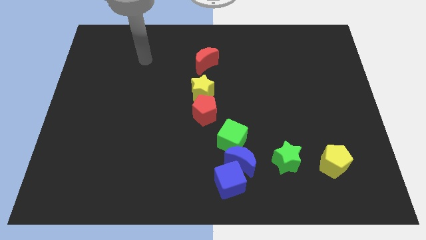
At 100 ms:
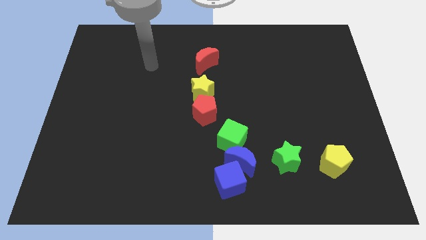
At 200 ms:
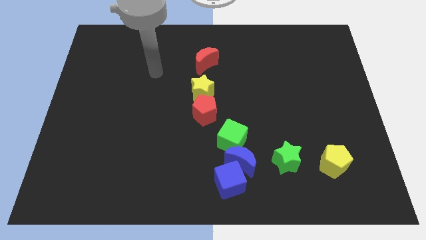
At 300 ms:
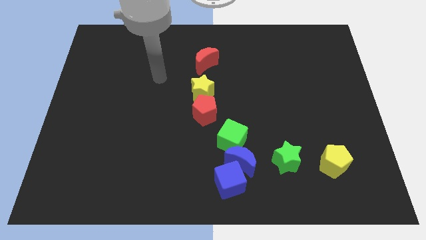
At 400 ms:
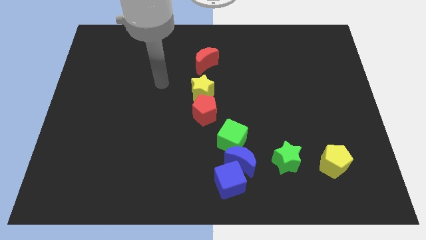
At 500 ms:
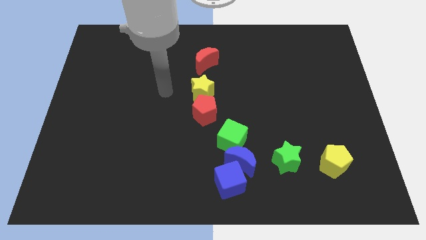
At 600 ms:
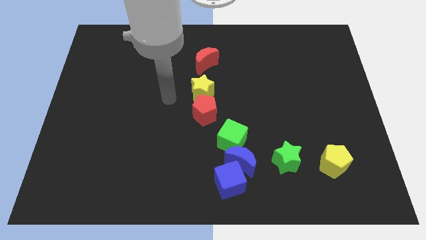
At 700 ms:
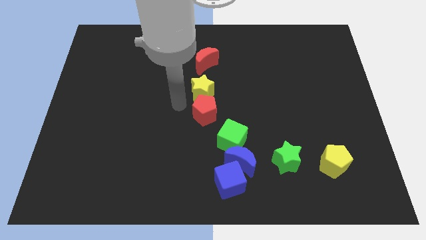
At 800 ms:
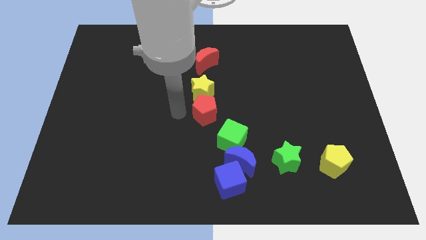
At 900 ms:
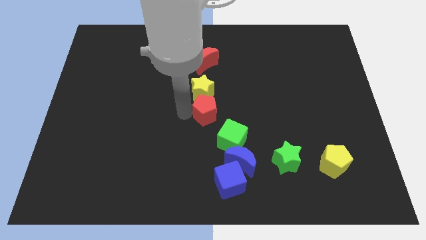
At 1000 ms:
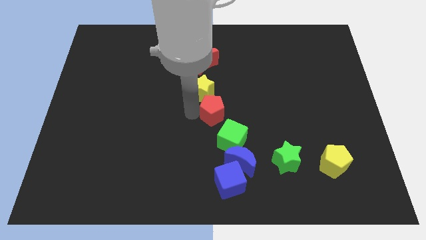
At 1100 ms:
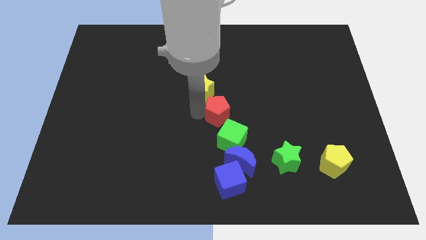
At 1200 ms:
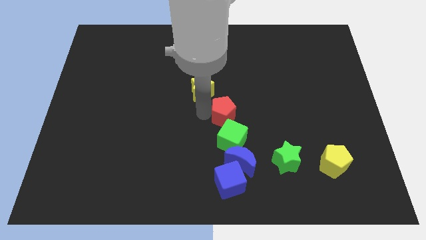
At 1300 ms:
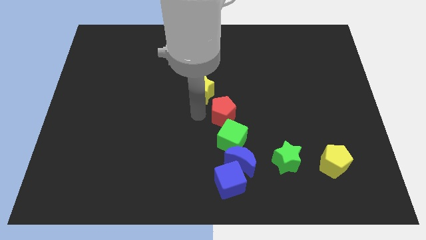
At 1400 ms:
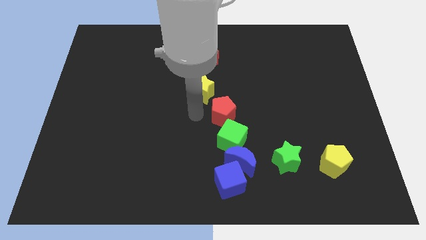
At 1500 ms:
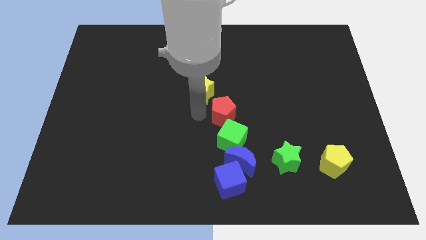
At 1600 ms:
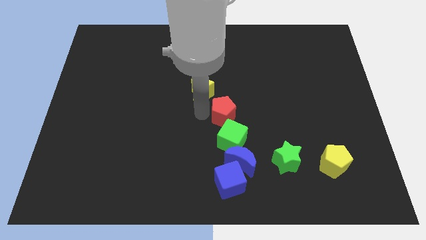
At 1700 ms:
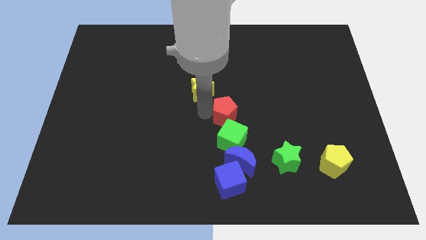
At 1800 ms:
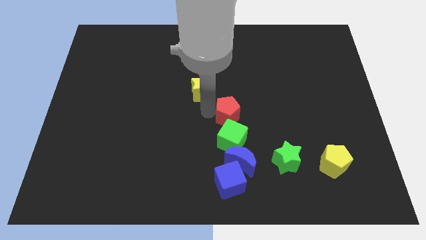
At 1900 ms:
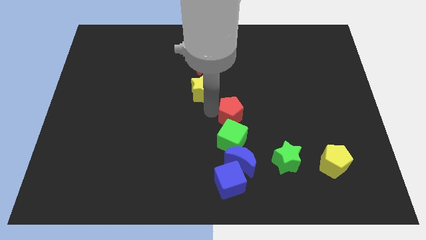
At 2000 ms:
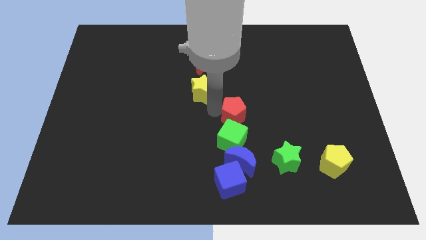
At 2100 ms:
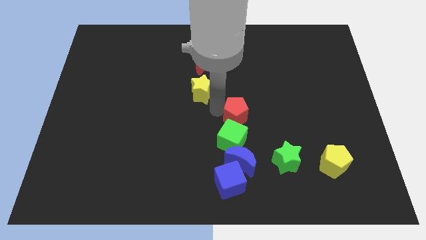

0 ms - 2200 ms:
slightly slide the red pentagon to the right

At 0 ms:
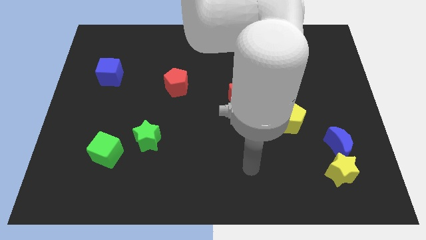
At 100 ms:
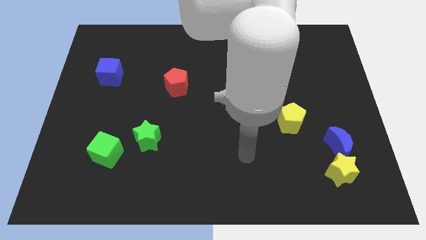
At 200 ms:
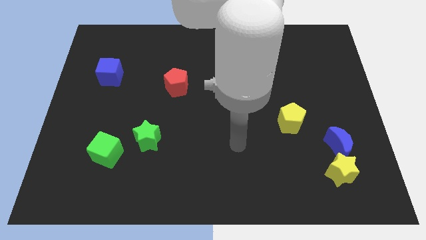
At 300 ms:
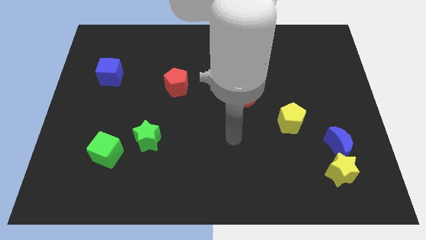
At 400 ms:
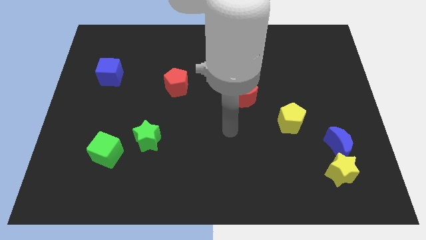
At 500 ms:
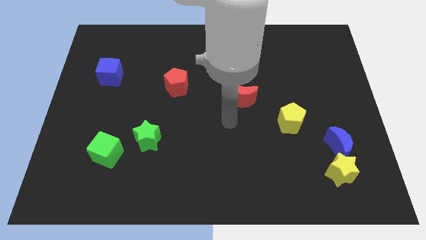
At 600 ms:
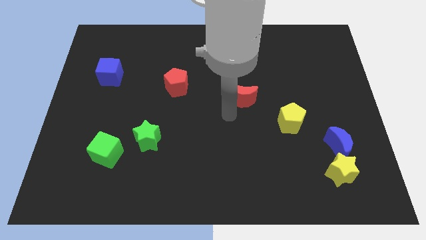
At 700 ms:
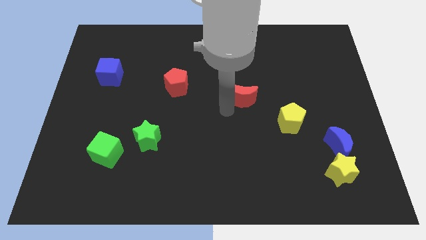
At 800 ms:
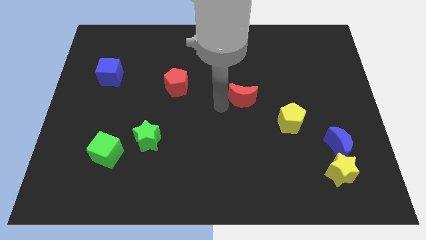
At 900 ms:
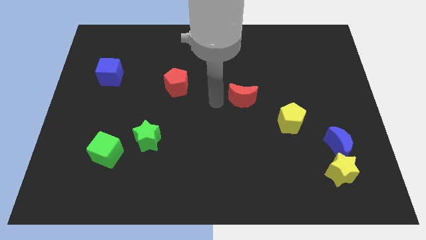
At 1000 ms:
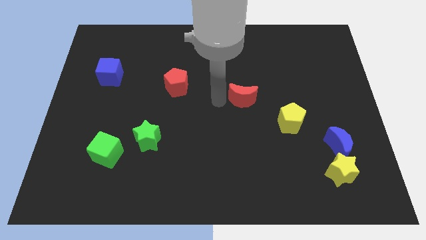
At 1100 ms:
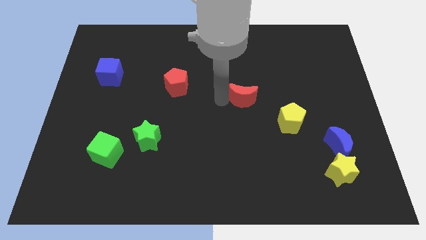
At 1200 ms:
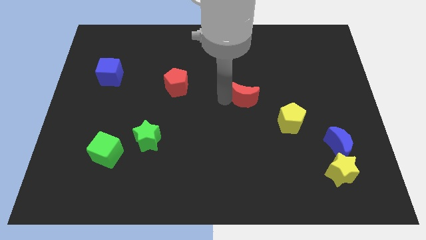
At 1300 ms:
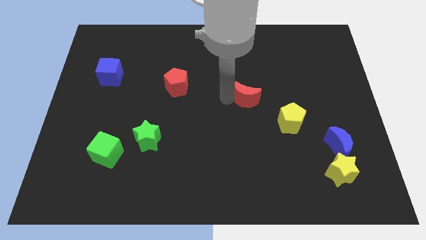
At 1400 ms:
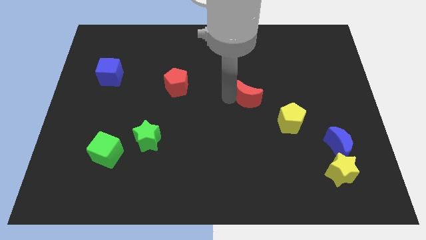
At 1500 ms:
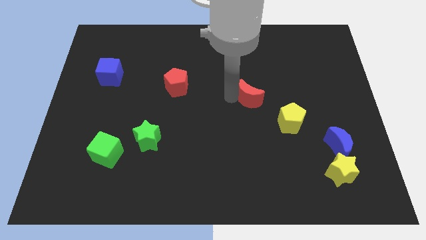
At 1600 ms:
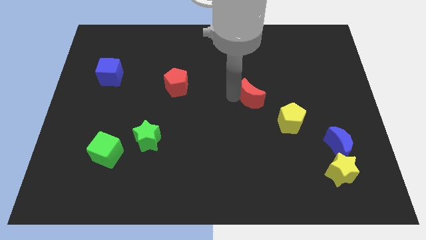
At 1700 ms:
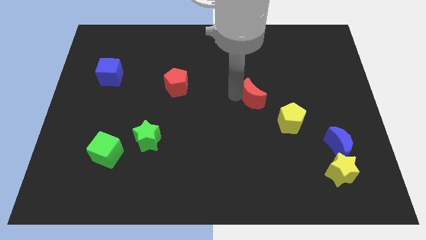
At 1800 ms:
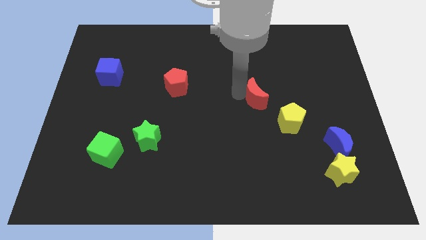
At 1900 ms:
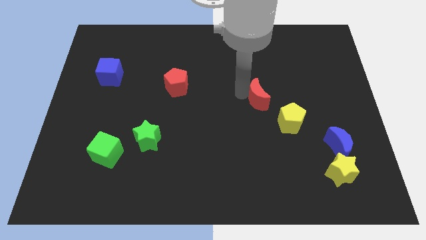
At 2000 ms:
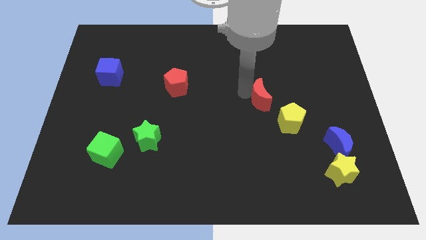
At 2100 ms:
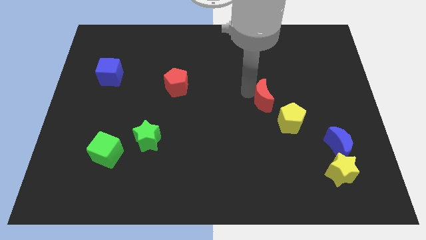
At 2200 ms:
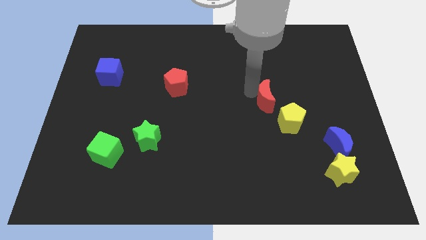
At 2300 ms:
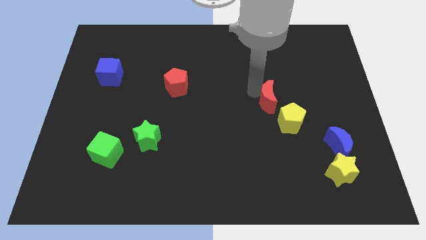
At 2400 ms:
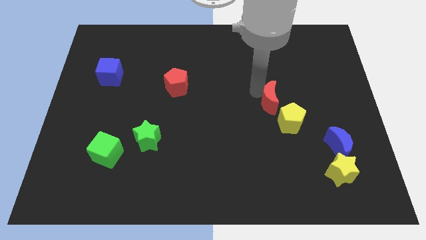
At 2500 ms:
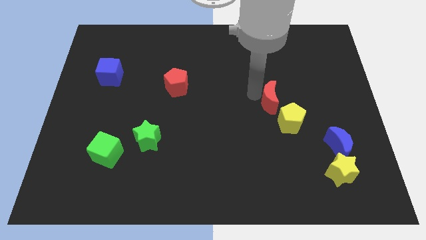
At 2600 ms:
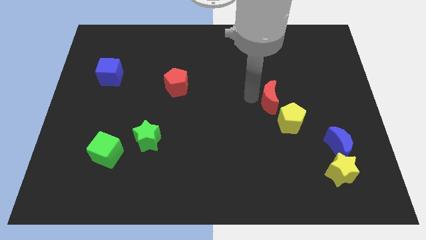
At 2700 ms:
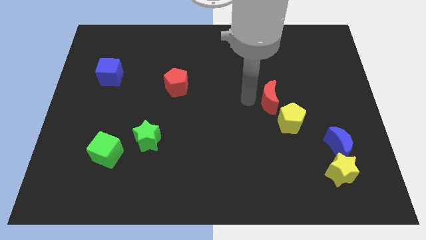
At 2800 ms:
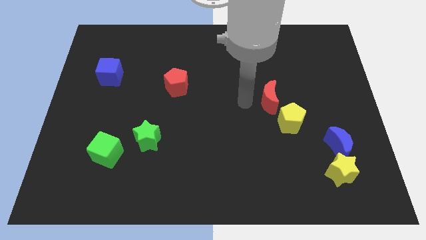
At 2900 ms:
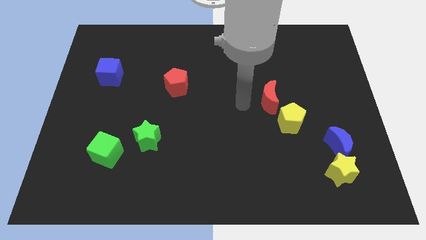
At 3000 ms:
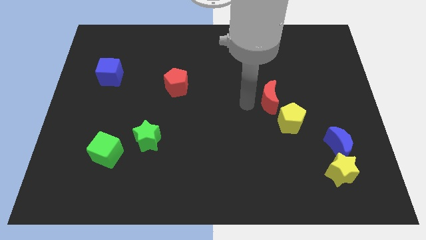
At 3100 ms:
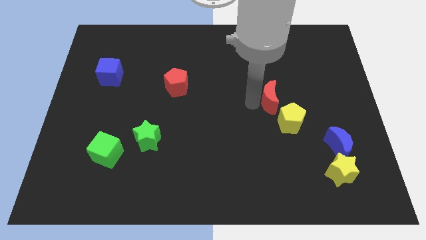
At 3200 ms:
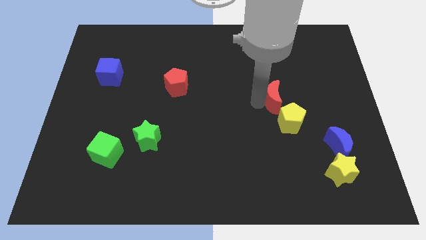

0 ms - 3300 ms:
push the red moon to the right a little bit

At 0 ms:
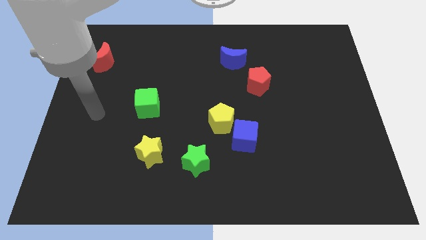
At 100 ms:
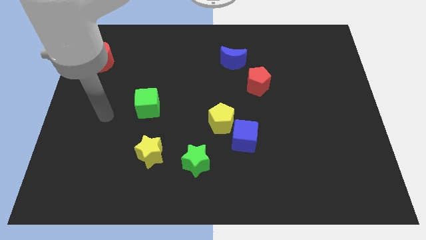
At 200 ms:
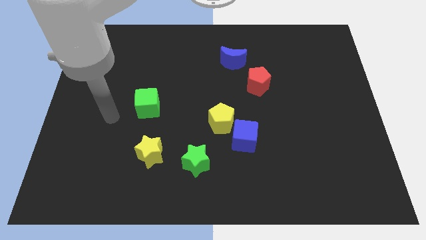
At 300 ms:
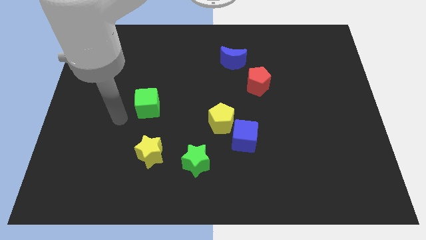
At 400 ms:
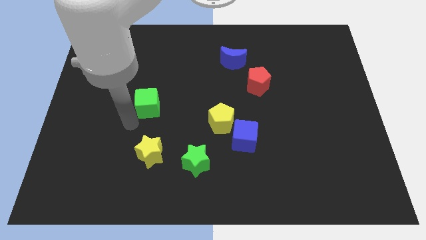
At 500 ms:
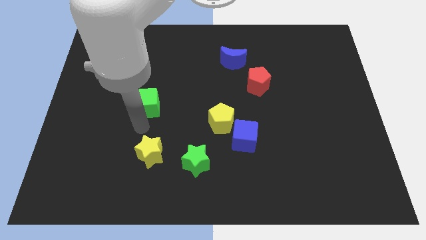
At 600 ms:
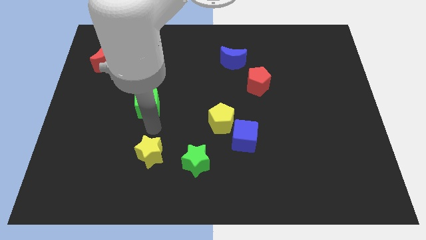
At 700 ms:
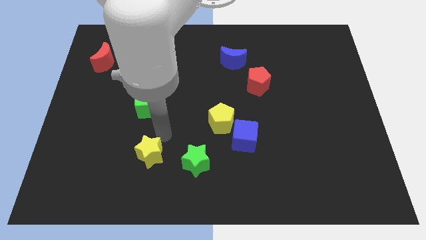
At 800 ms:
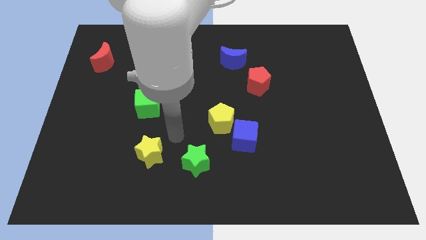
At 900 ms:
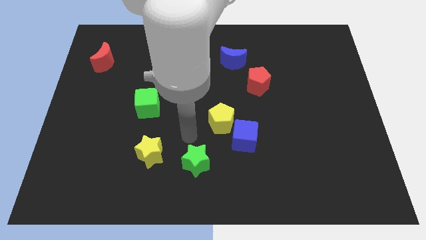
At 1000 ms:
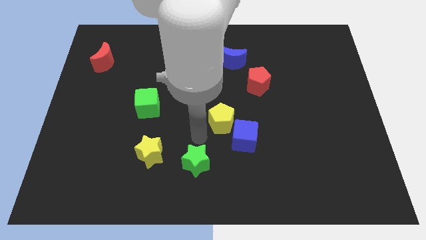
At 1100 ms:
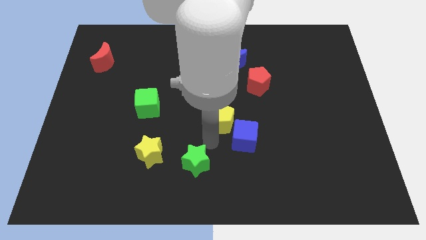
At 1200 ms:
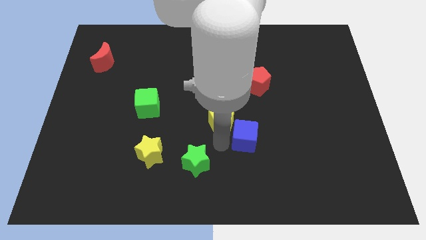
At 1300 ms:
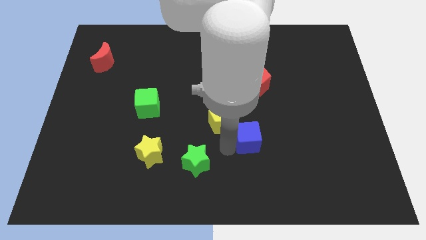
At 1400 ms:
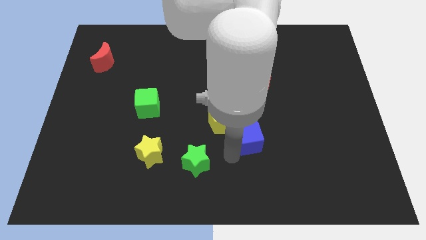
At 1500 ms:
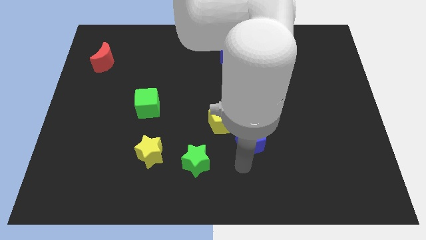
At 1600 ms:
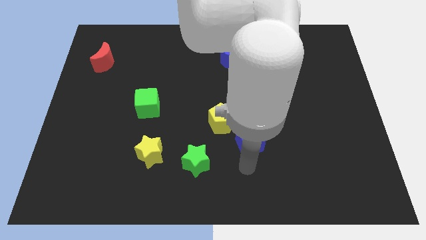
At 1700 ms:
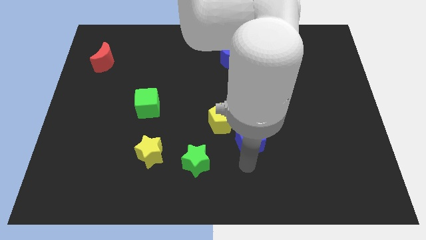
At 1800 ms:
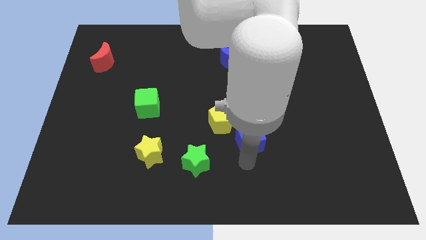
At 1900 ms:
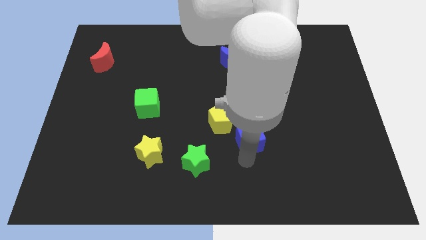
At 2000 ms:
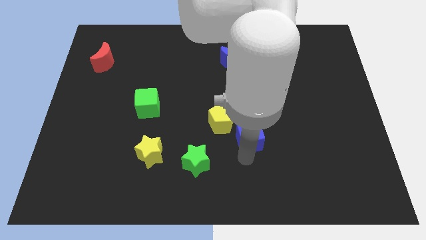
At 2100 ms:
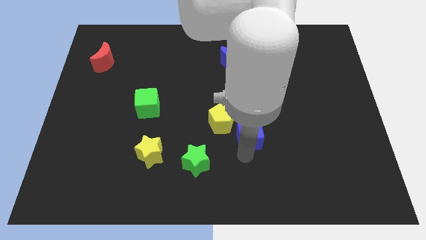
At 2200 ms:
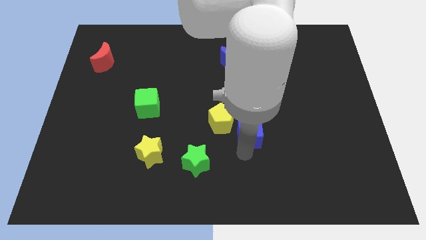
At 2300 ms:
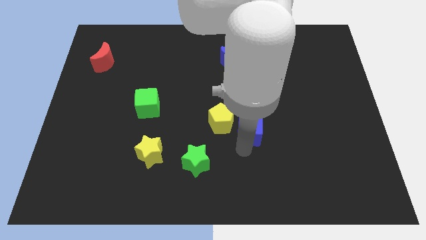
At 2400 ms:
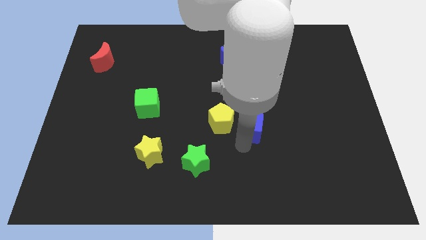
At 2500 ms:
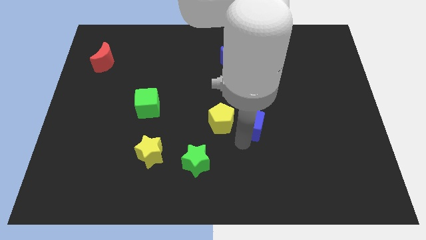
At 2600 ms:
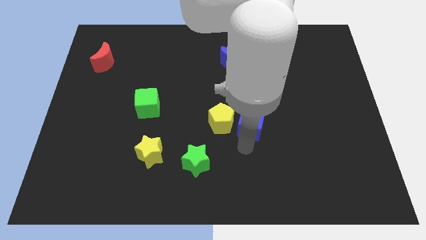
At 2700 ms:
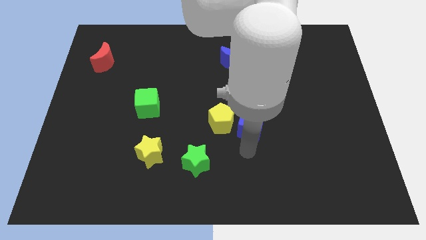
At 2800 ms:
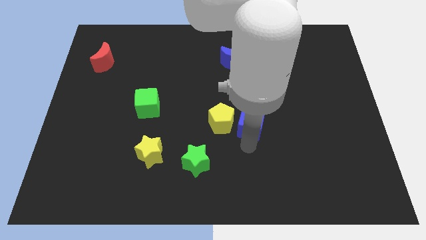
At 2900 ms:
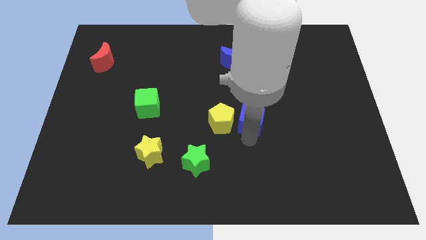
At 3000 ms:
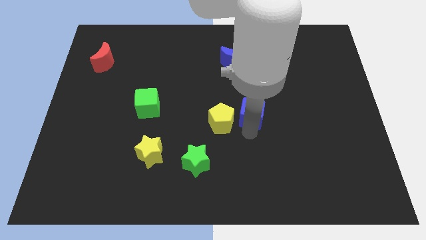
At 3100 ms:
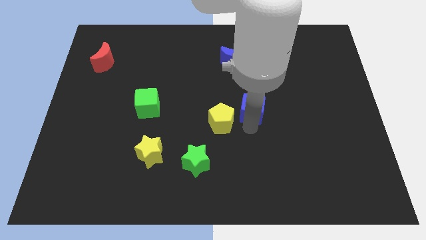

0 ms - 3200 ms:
push the blue cube up slightly
